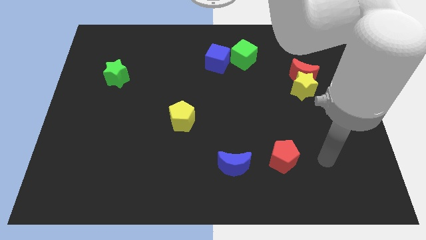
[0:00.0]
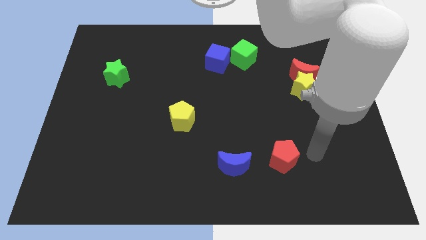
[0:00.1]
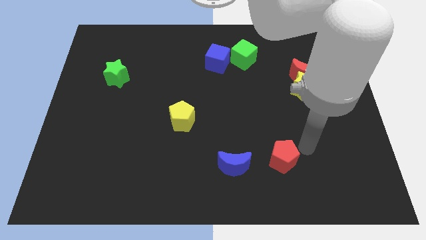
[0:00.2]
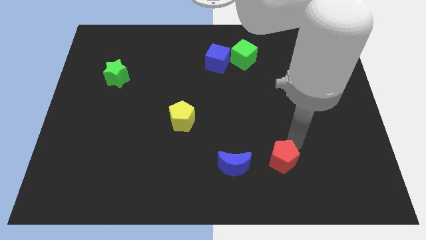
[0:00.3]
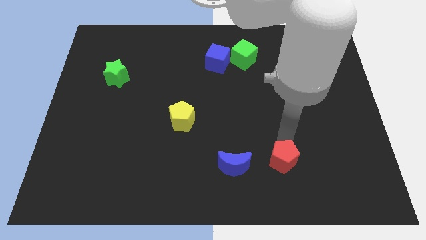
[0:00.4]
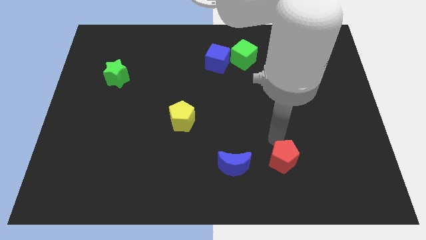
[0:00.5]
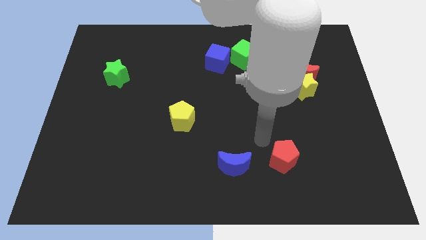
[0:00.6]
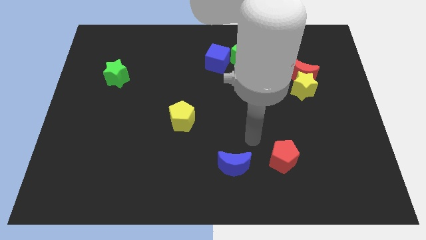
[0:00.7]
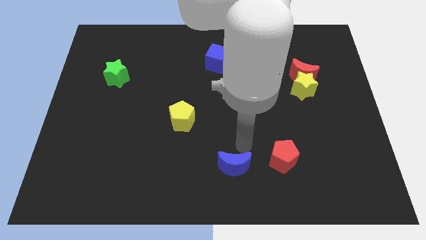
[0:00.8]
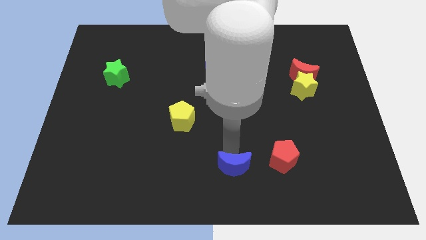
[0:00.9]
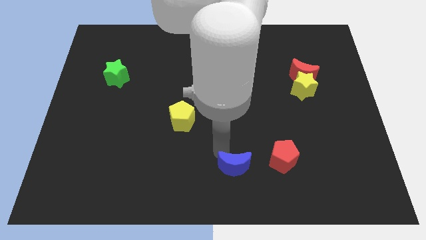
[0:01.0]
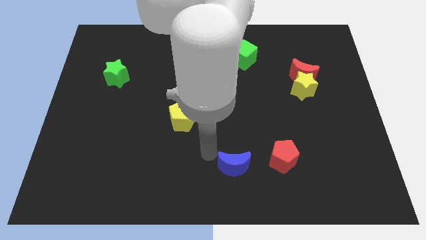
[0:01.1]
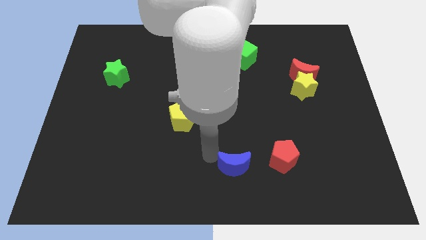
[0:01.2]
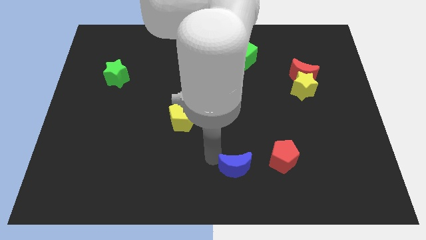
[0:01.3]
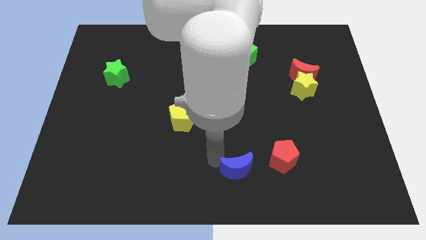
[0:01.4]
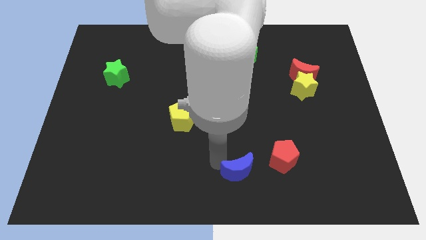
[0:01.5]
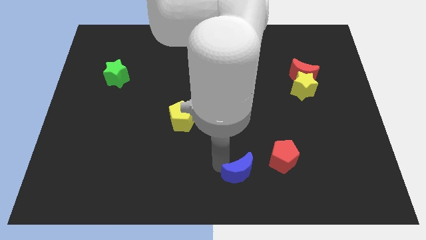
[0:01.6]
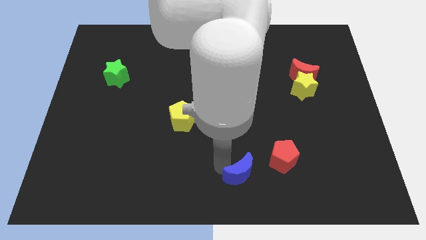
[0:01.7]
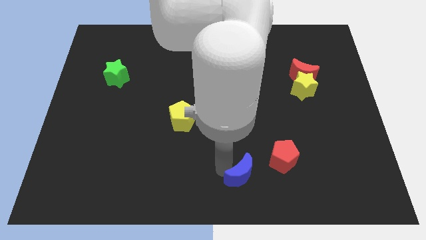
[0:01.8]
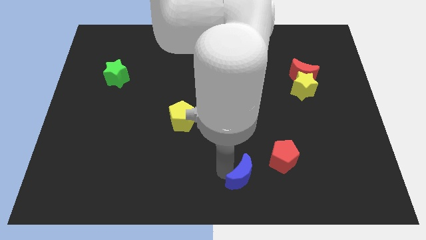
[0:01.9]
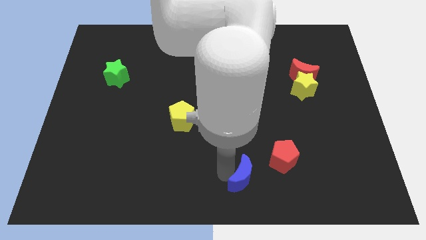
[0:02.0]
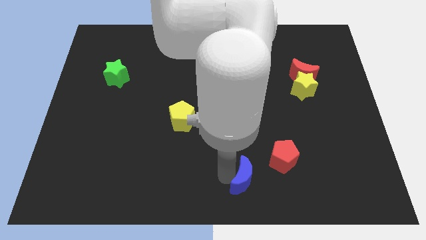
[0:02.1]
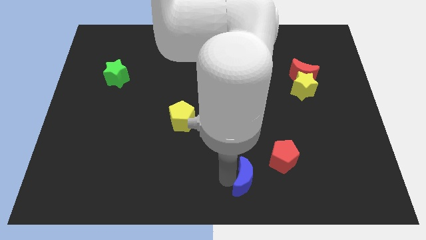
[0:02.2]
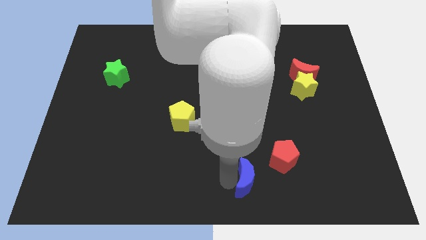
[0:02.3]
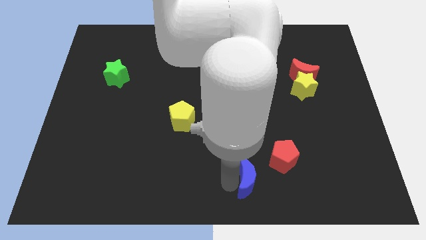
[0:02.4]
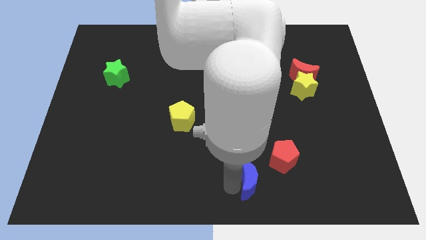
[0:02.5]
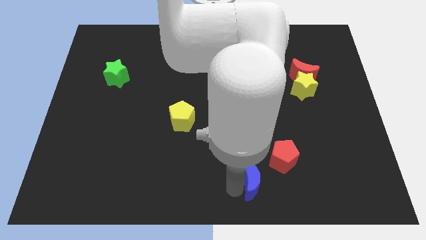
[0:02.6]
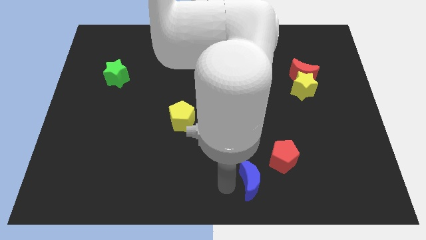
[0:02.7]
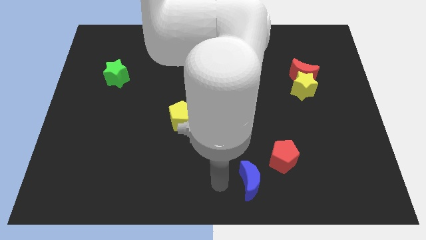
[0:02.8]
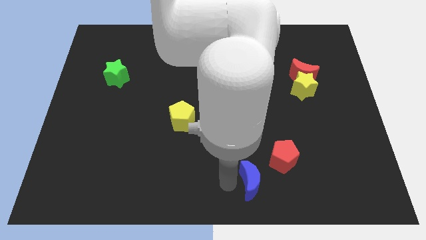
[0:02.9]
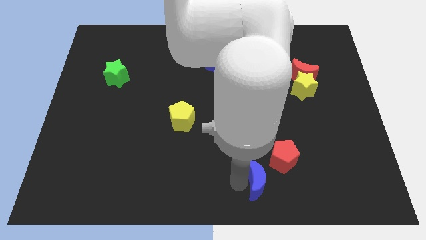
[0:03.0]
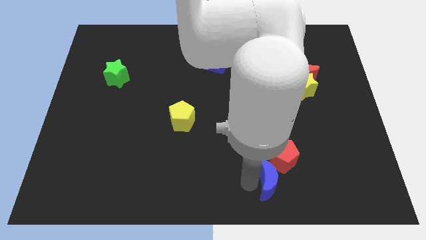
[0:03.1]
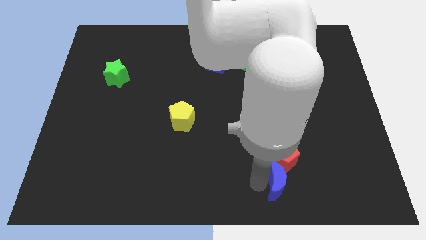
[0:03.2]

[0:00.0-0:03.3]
slightly push the blue moon right

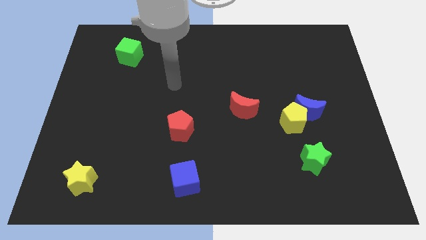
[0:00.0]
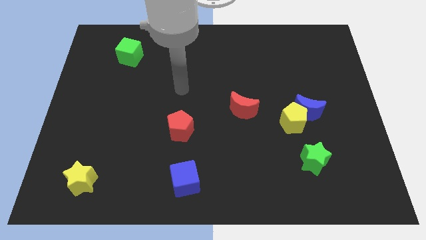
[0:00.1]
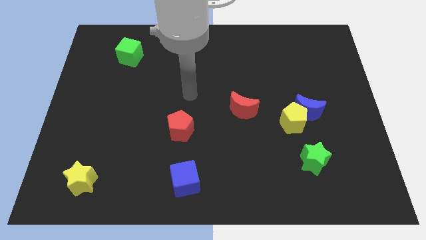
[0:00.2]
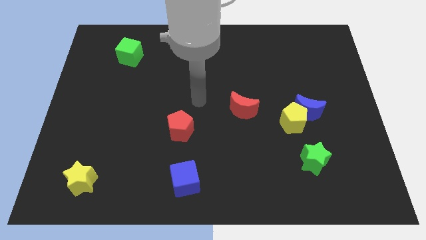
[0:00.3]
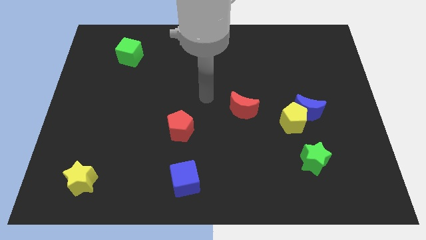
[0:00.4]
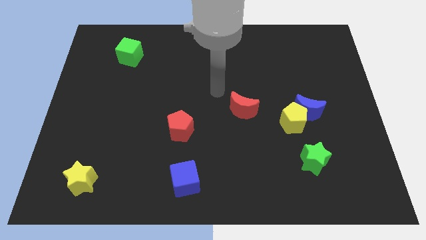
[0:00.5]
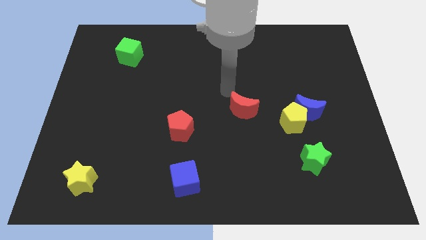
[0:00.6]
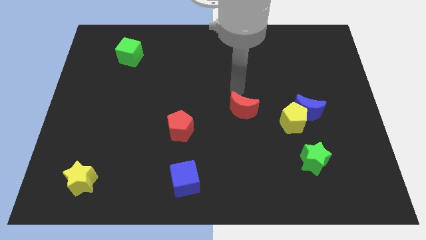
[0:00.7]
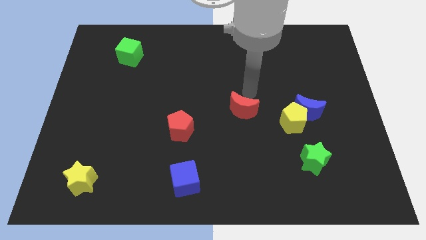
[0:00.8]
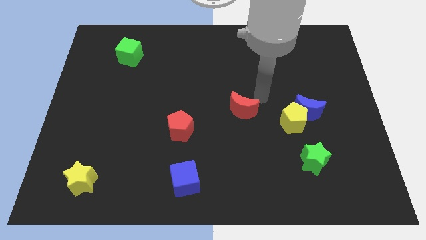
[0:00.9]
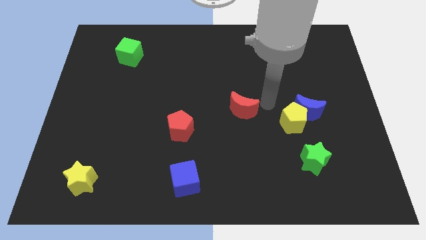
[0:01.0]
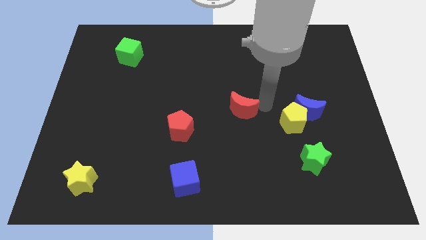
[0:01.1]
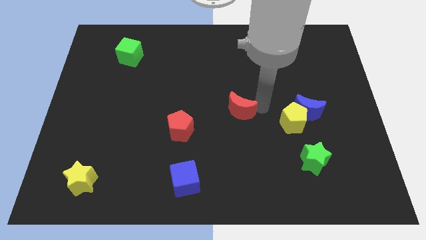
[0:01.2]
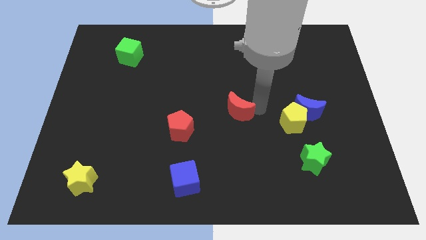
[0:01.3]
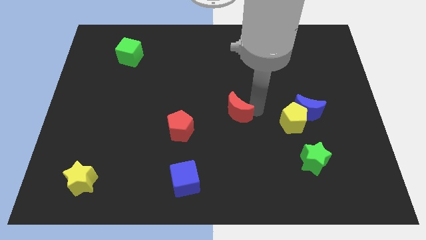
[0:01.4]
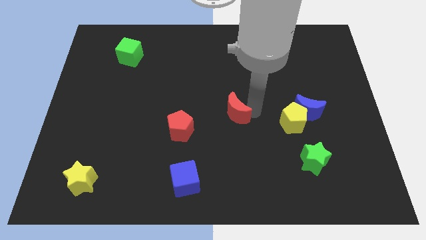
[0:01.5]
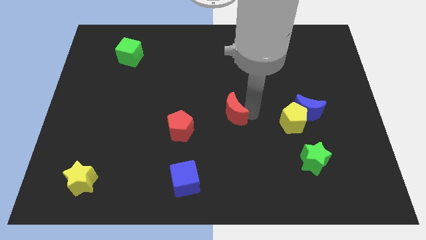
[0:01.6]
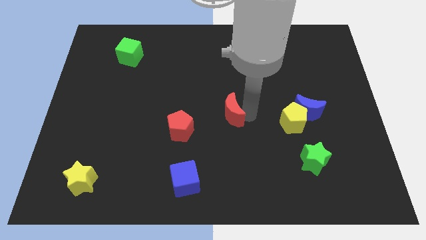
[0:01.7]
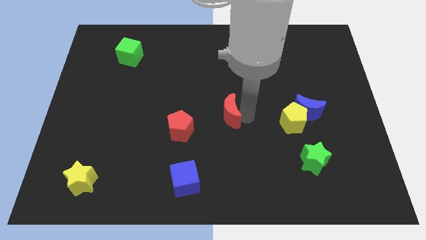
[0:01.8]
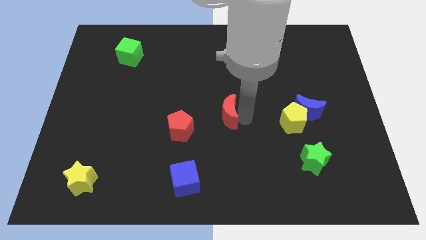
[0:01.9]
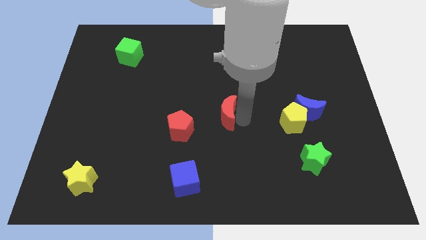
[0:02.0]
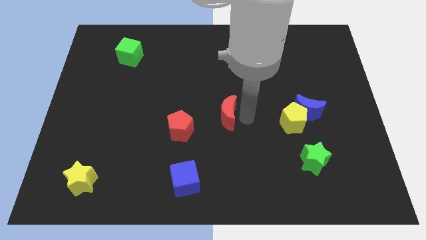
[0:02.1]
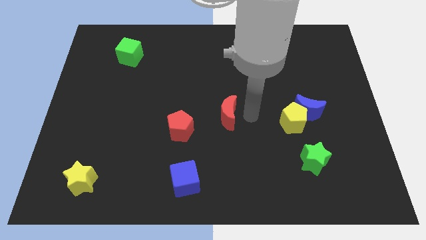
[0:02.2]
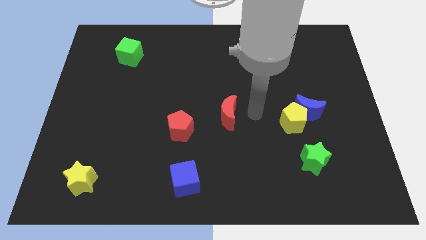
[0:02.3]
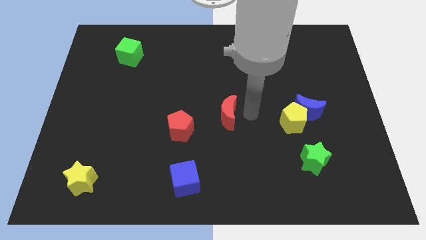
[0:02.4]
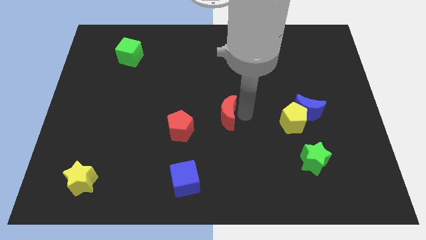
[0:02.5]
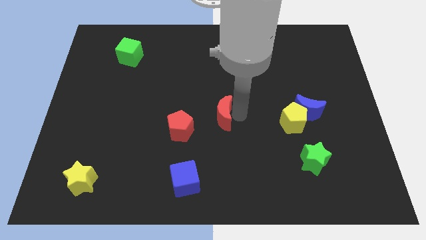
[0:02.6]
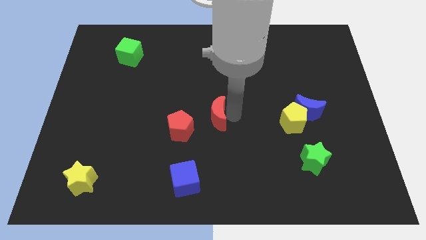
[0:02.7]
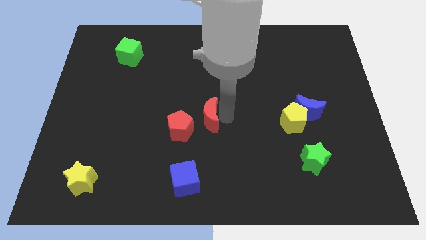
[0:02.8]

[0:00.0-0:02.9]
slightly slide the red moon to the left

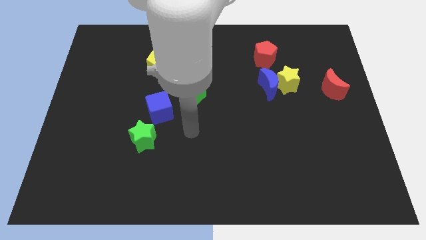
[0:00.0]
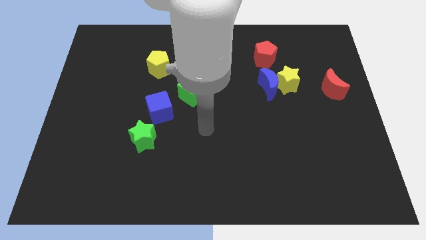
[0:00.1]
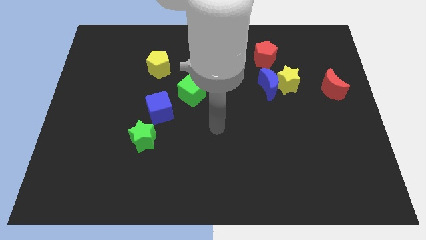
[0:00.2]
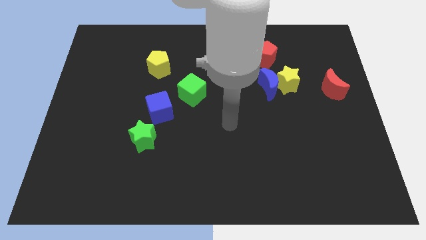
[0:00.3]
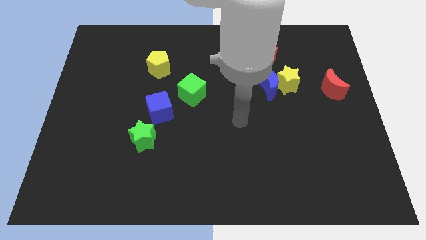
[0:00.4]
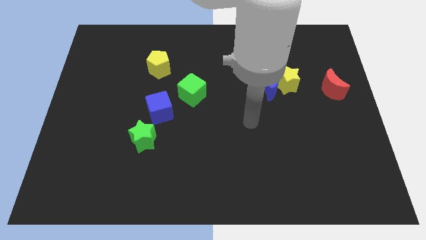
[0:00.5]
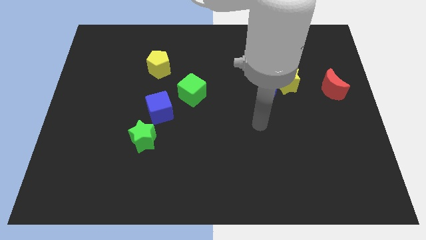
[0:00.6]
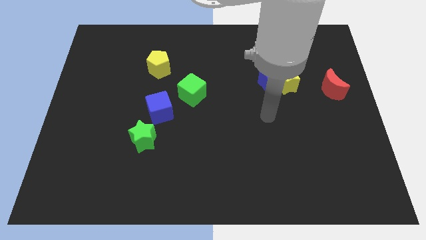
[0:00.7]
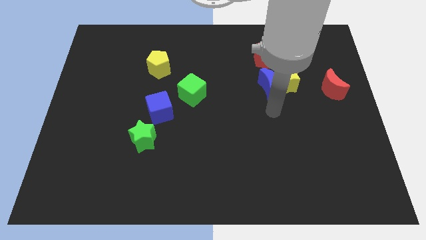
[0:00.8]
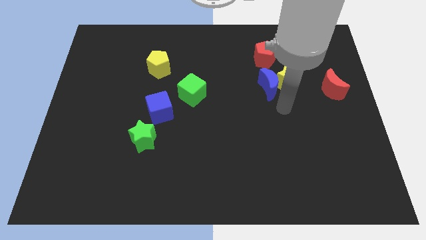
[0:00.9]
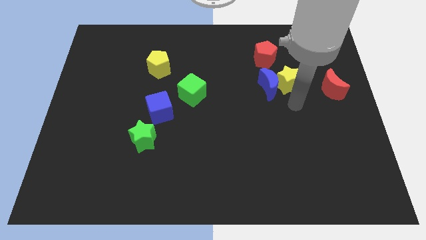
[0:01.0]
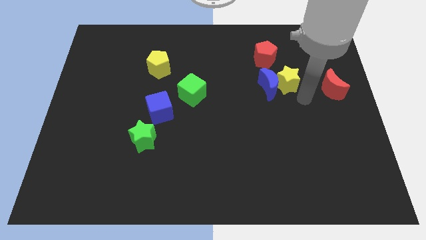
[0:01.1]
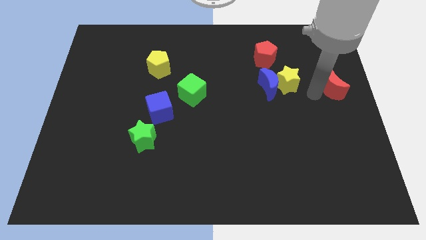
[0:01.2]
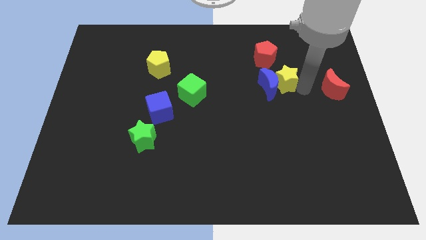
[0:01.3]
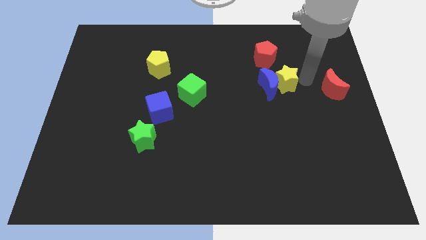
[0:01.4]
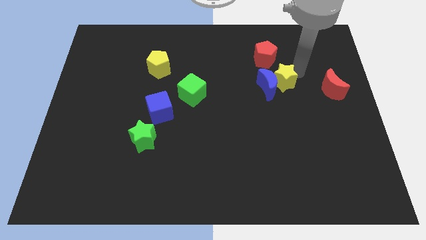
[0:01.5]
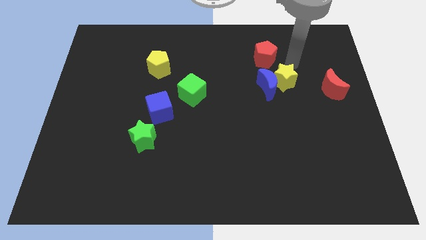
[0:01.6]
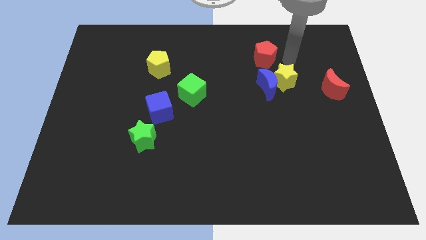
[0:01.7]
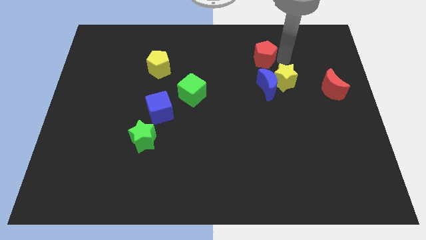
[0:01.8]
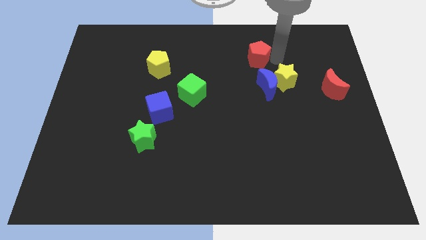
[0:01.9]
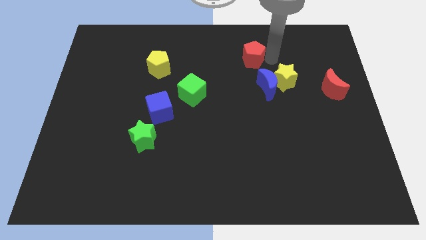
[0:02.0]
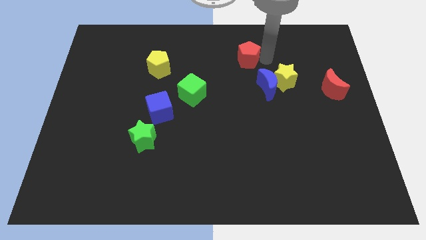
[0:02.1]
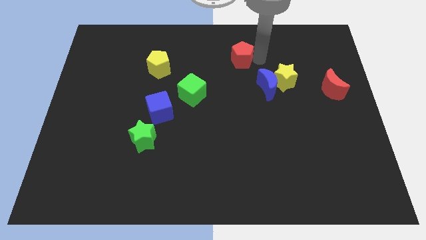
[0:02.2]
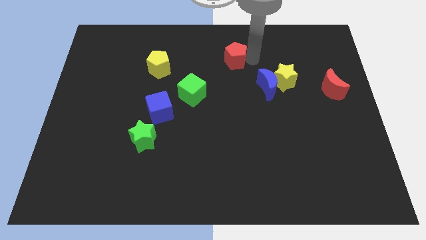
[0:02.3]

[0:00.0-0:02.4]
move the red pentagon left a bit
